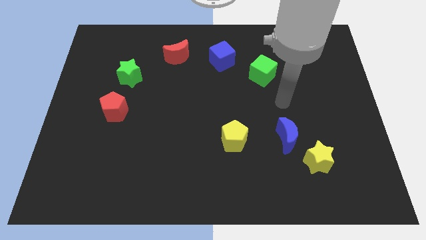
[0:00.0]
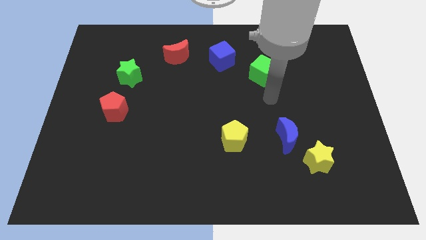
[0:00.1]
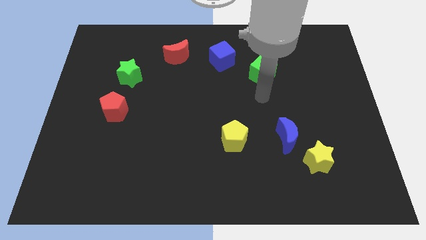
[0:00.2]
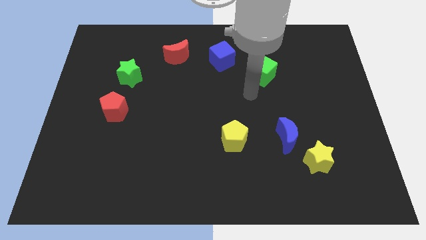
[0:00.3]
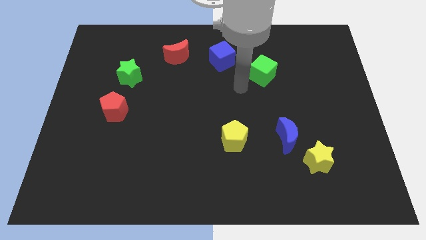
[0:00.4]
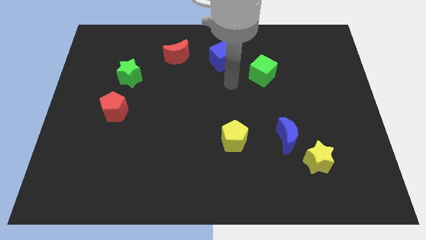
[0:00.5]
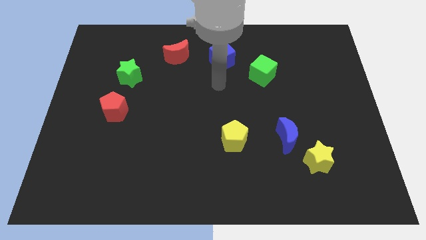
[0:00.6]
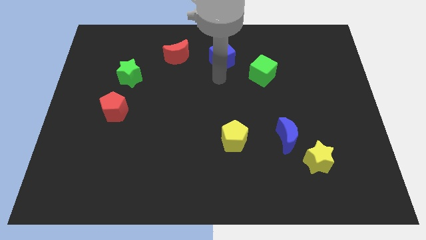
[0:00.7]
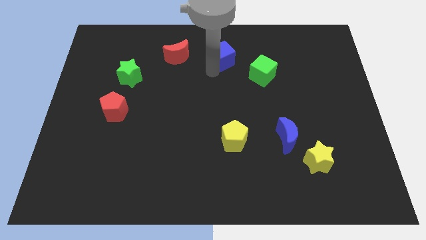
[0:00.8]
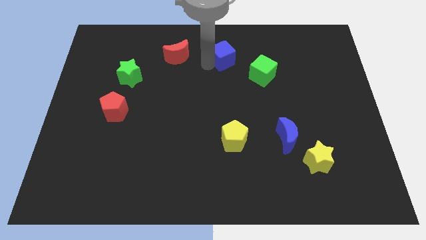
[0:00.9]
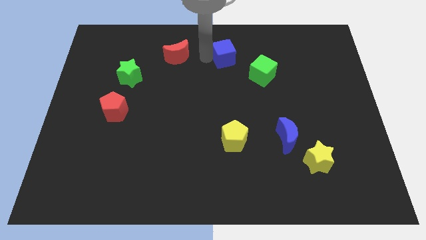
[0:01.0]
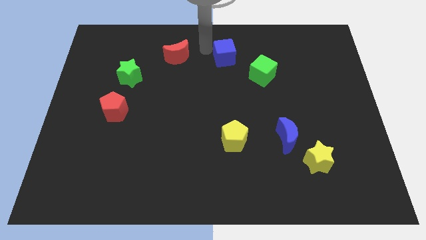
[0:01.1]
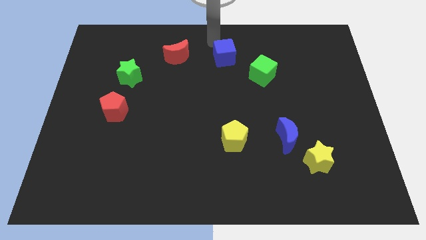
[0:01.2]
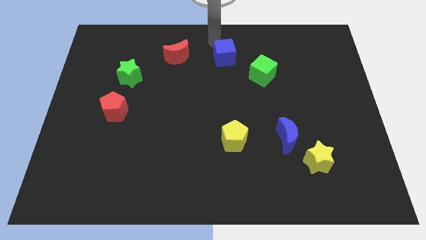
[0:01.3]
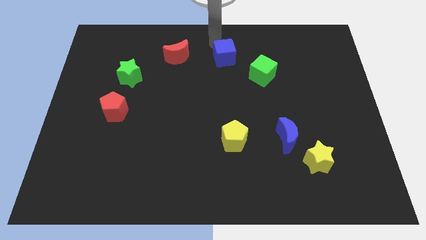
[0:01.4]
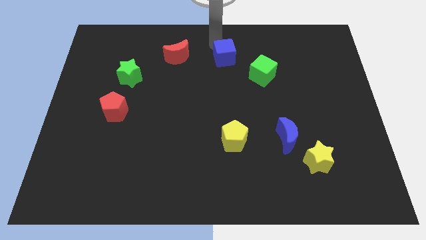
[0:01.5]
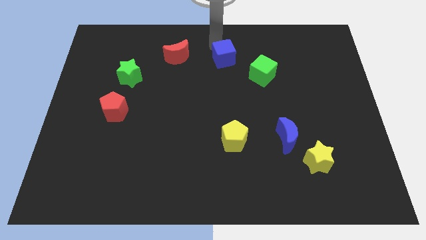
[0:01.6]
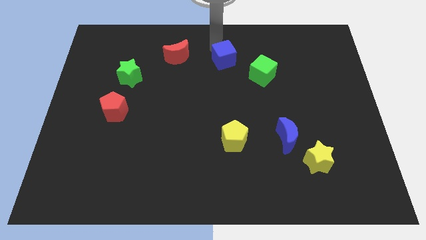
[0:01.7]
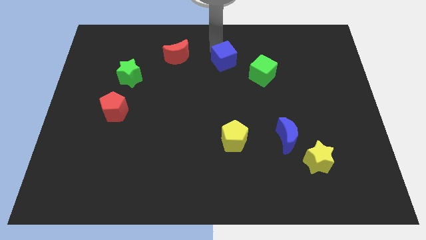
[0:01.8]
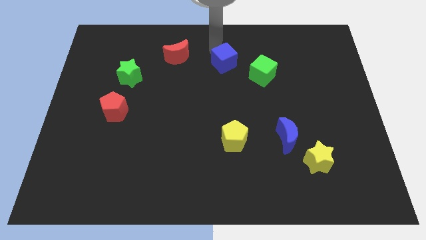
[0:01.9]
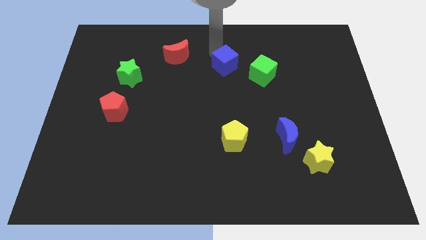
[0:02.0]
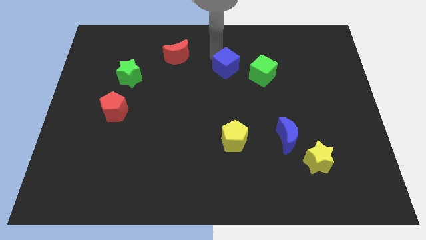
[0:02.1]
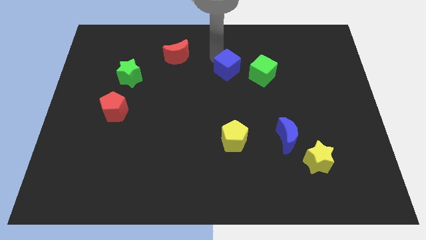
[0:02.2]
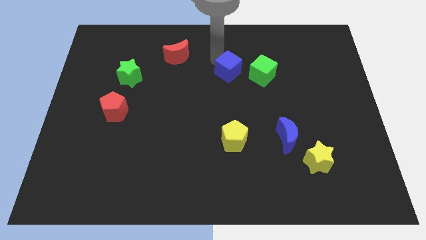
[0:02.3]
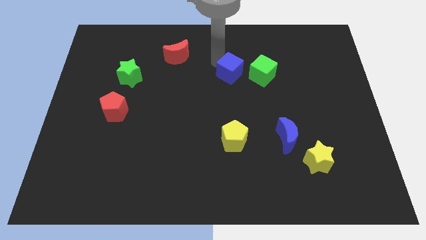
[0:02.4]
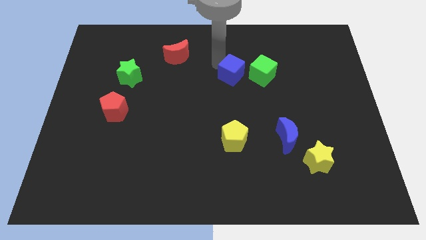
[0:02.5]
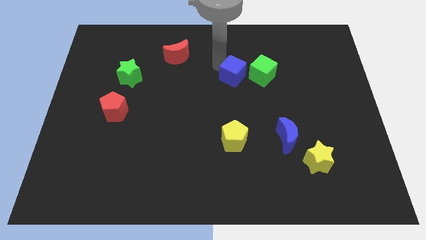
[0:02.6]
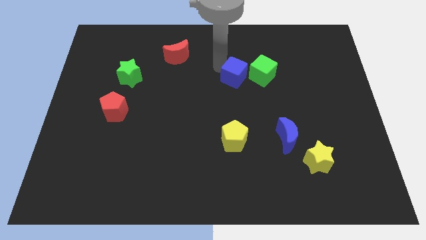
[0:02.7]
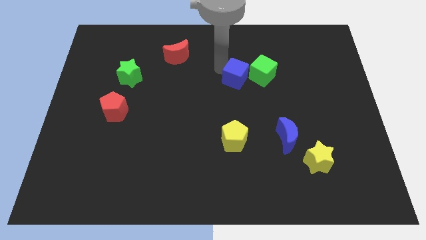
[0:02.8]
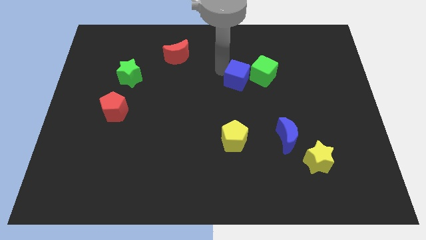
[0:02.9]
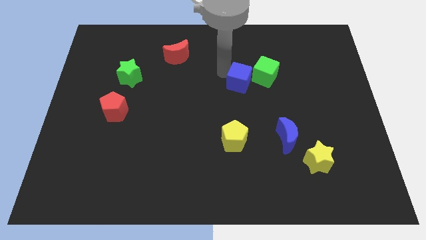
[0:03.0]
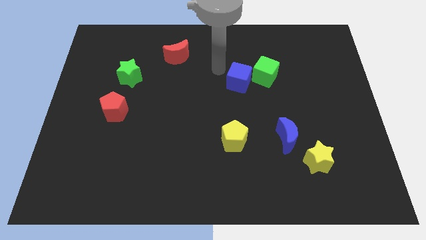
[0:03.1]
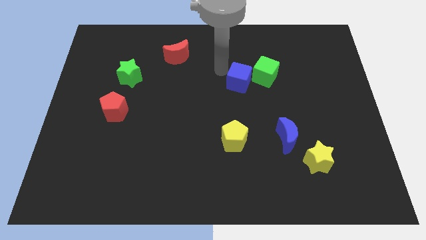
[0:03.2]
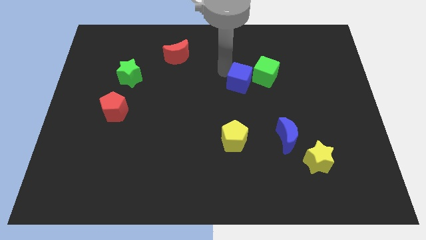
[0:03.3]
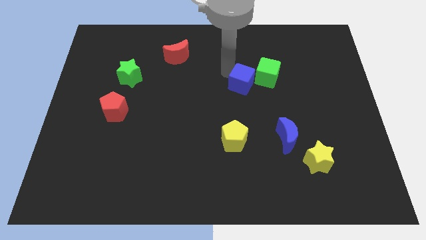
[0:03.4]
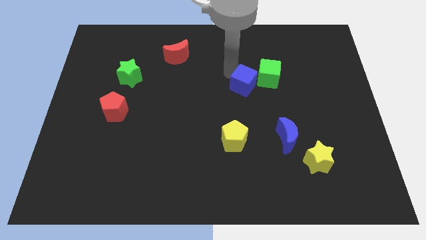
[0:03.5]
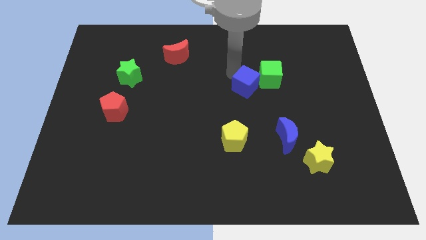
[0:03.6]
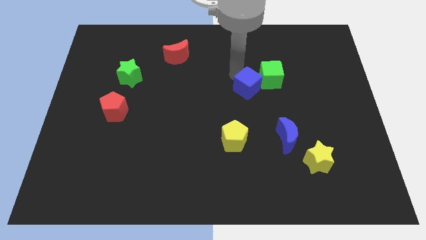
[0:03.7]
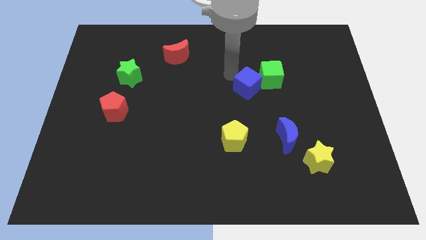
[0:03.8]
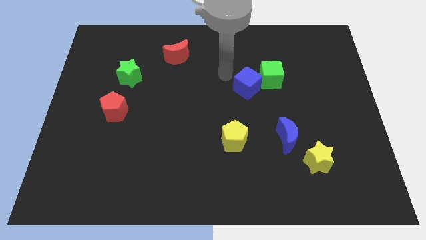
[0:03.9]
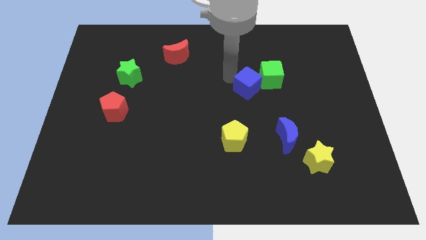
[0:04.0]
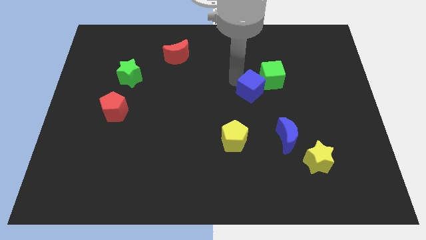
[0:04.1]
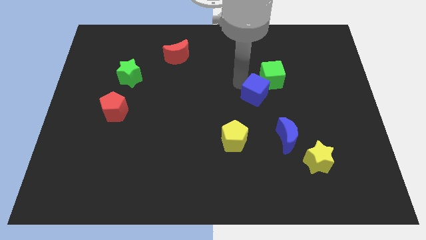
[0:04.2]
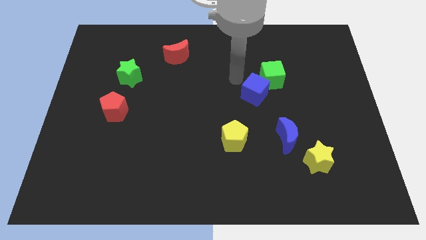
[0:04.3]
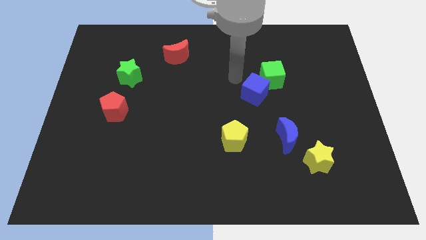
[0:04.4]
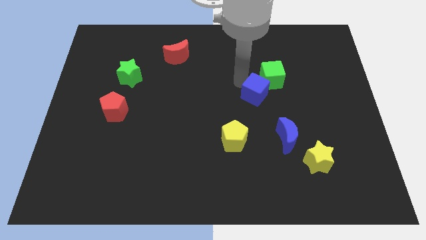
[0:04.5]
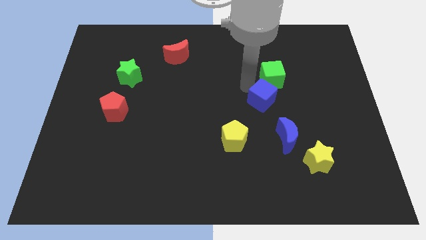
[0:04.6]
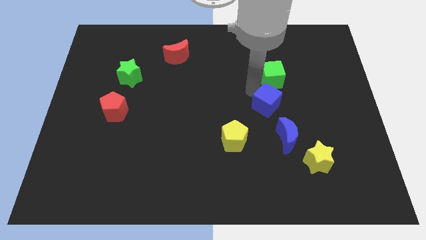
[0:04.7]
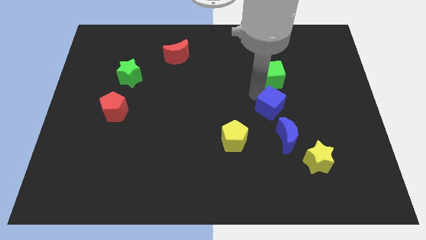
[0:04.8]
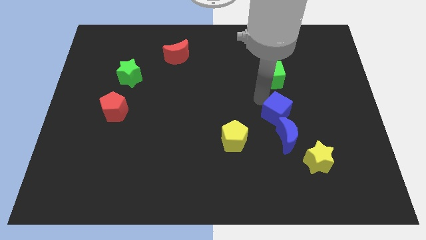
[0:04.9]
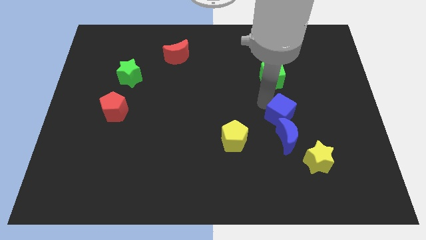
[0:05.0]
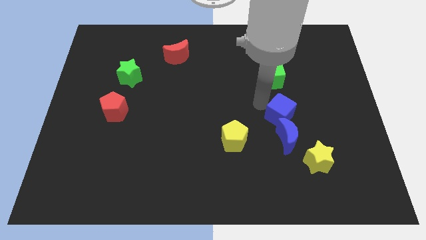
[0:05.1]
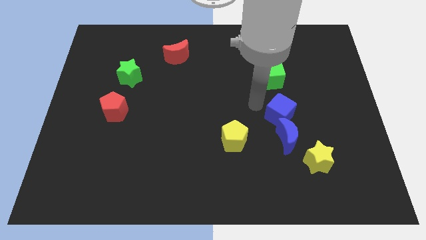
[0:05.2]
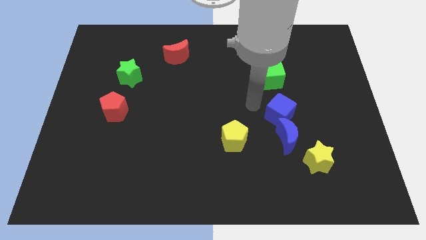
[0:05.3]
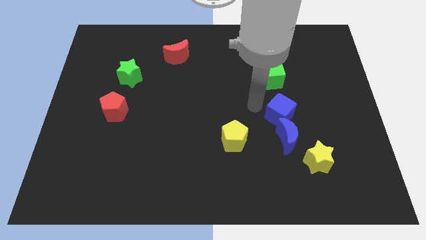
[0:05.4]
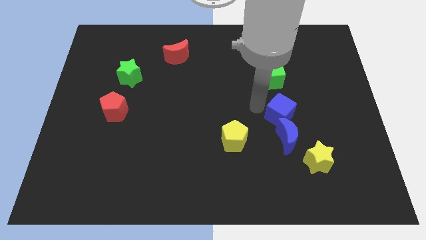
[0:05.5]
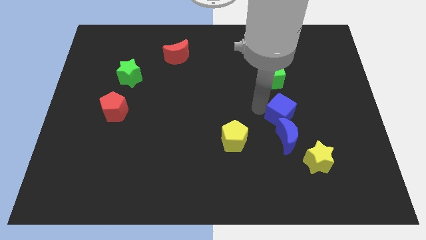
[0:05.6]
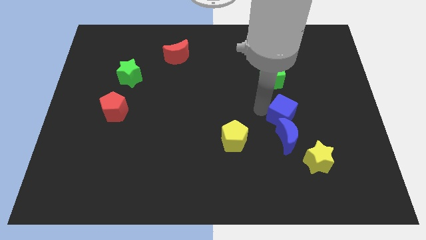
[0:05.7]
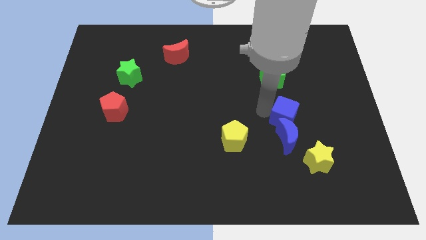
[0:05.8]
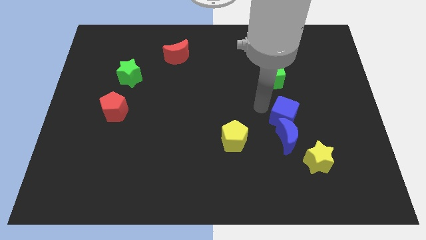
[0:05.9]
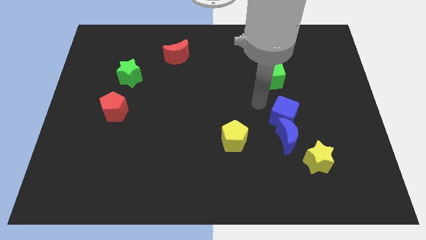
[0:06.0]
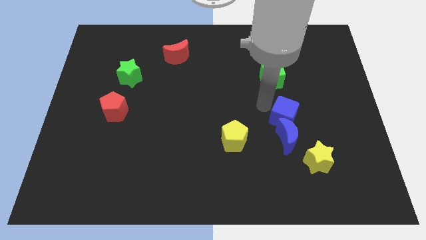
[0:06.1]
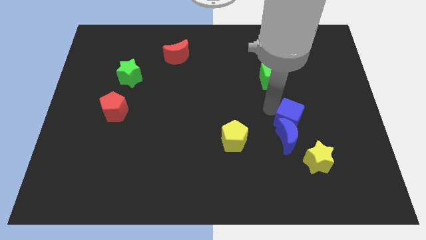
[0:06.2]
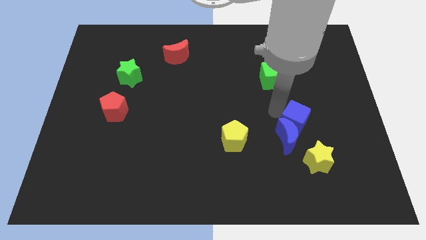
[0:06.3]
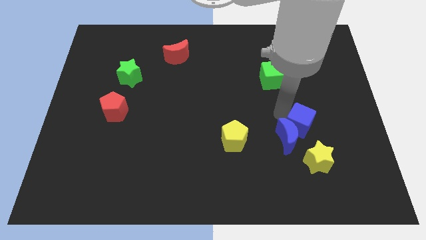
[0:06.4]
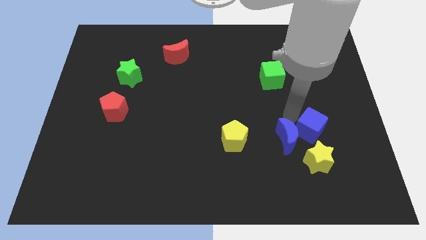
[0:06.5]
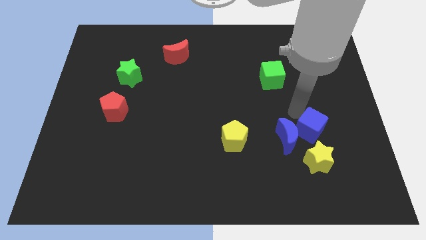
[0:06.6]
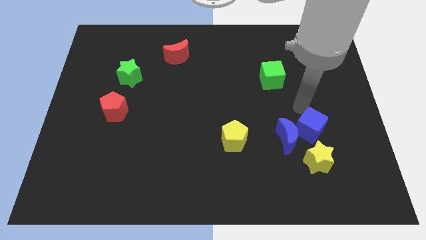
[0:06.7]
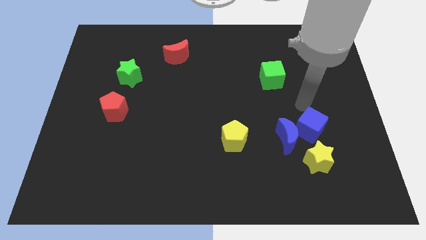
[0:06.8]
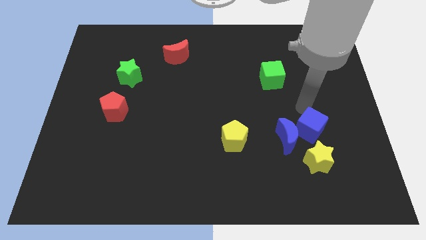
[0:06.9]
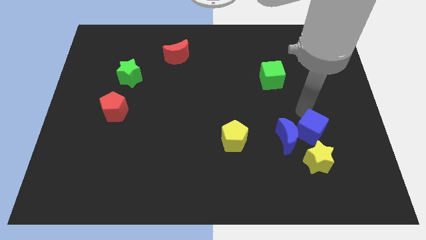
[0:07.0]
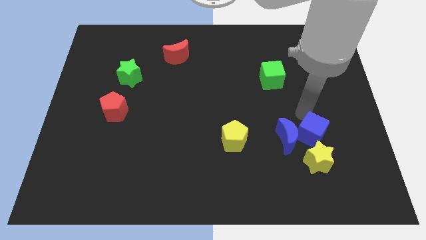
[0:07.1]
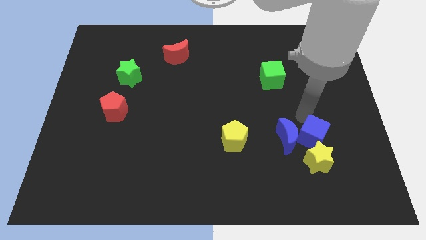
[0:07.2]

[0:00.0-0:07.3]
move the blue cube close to the yellow star
